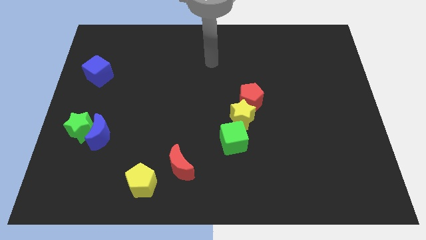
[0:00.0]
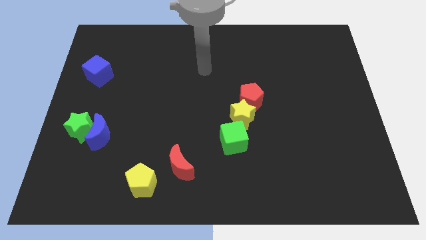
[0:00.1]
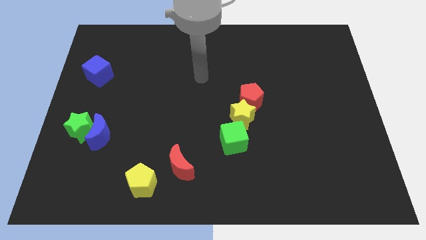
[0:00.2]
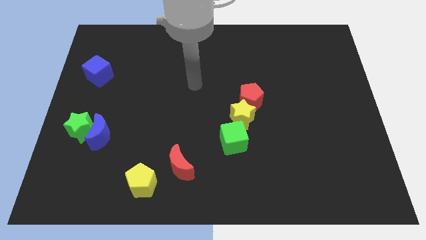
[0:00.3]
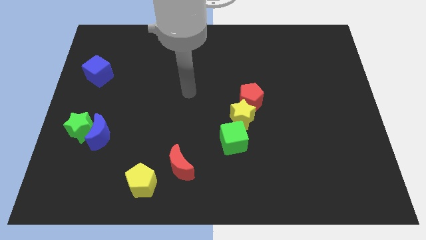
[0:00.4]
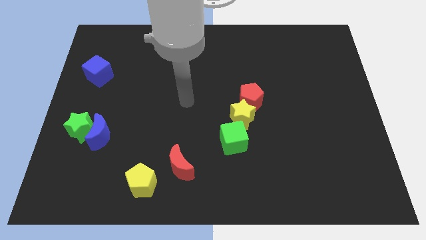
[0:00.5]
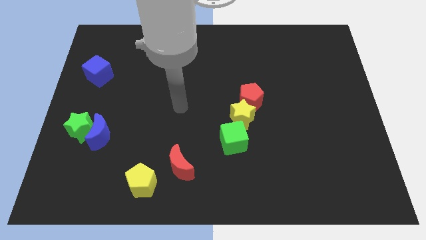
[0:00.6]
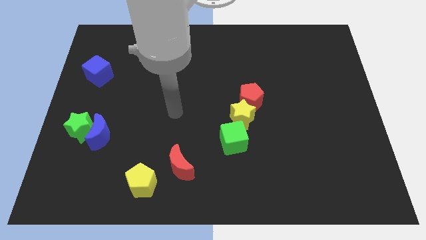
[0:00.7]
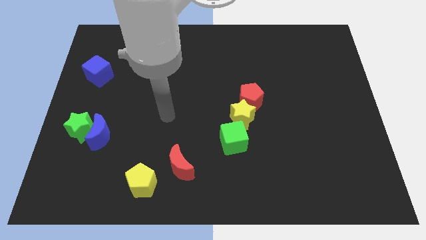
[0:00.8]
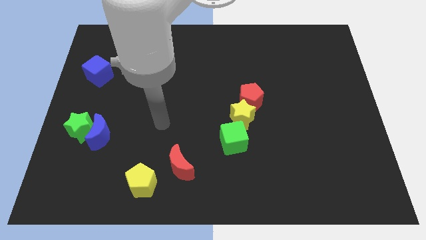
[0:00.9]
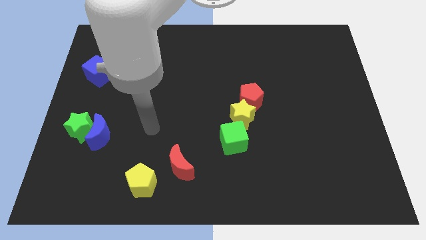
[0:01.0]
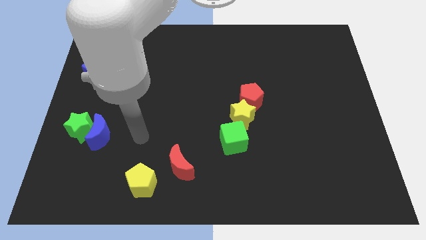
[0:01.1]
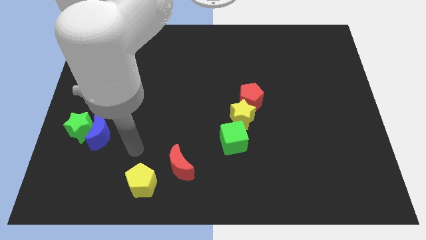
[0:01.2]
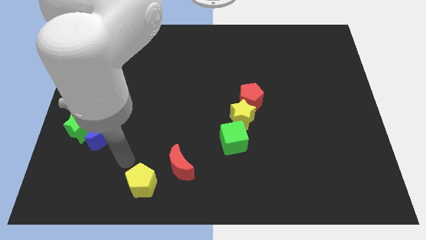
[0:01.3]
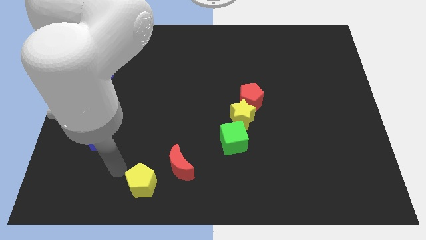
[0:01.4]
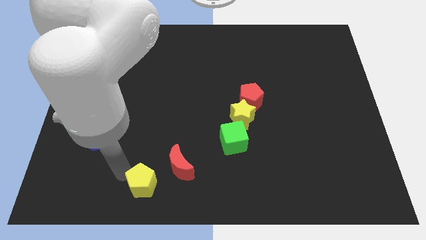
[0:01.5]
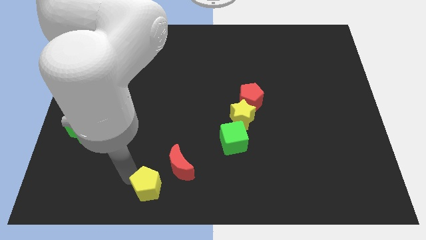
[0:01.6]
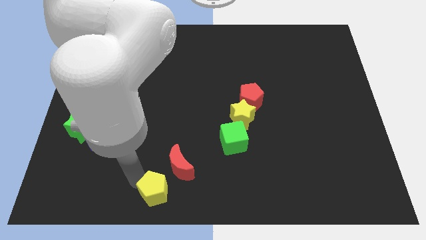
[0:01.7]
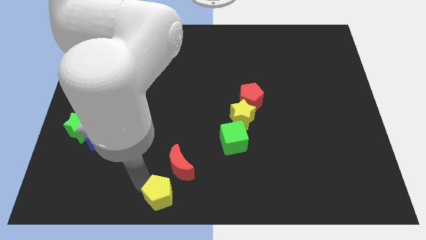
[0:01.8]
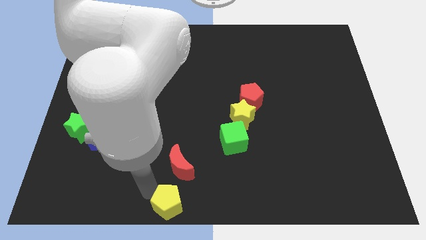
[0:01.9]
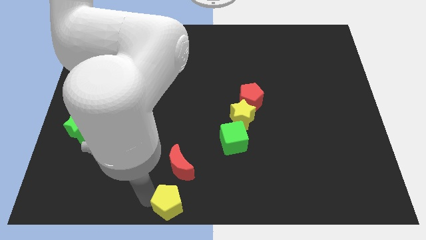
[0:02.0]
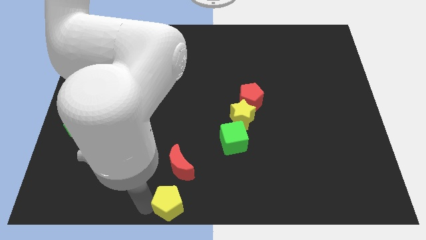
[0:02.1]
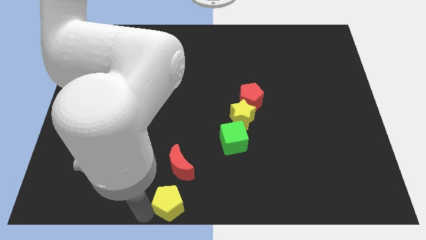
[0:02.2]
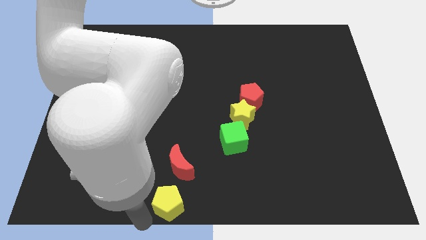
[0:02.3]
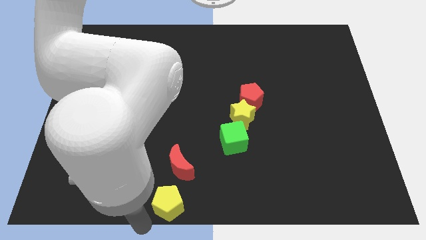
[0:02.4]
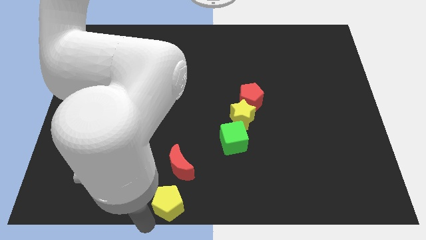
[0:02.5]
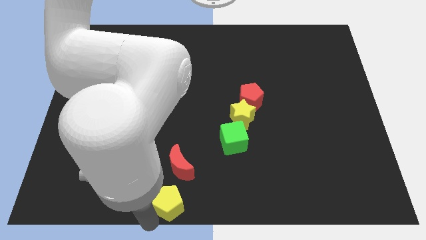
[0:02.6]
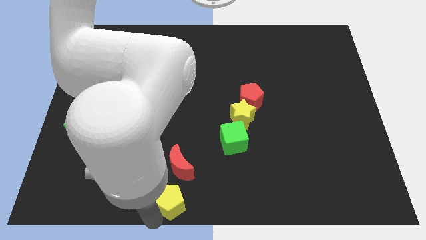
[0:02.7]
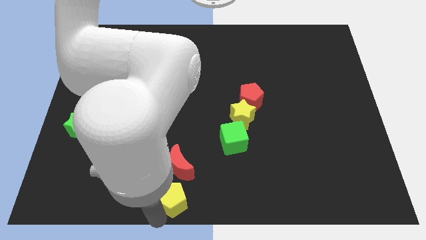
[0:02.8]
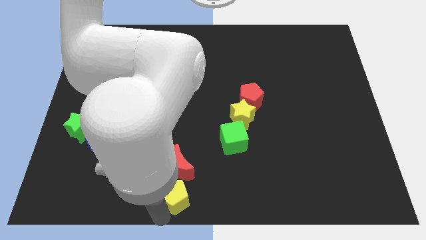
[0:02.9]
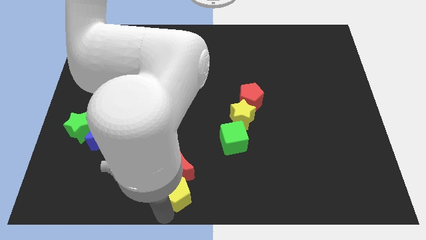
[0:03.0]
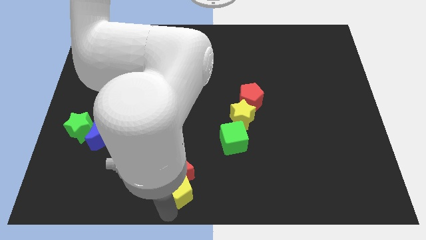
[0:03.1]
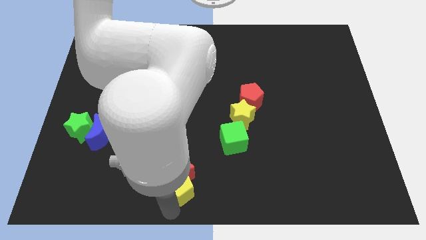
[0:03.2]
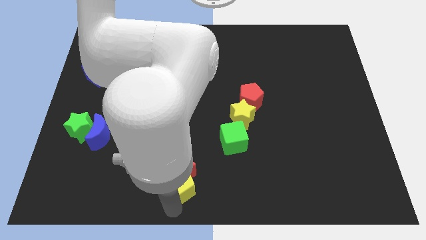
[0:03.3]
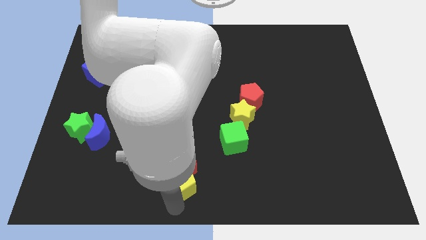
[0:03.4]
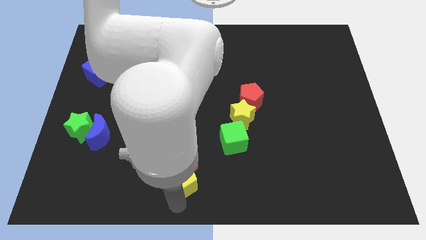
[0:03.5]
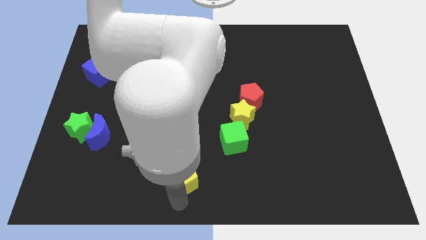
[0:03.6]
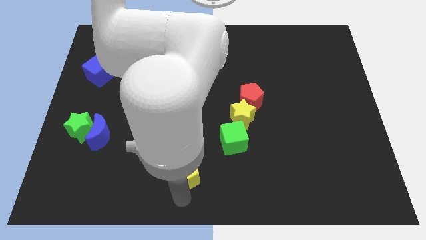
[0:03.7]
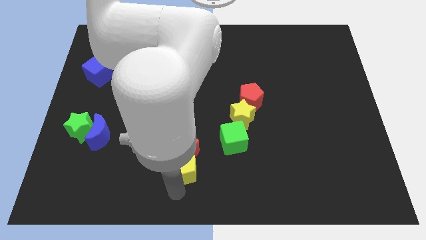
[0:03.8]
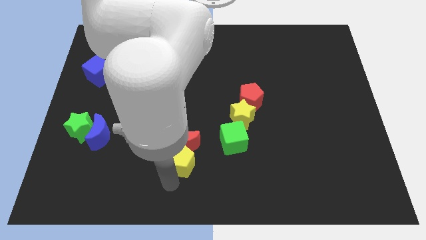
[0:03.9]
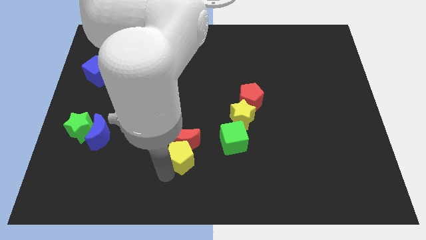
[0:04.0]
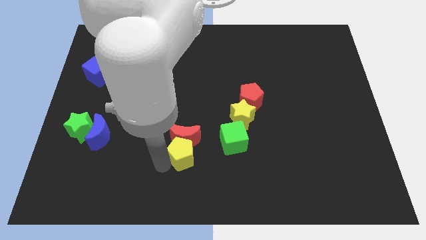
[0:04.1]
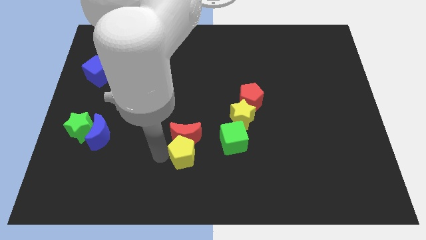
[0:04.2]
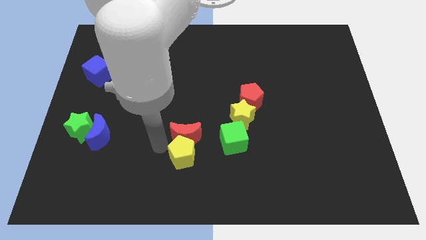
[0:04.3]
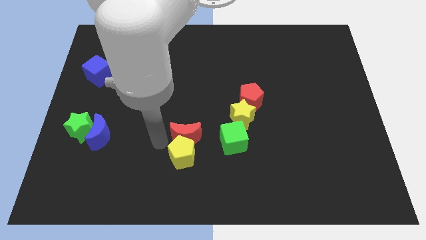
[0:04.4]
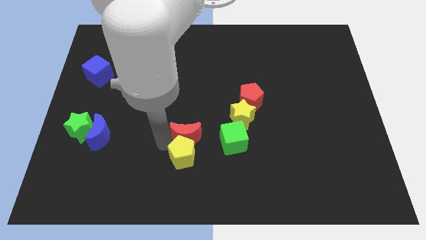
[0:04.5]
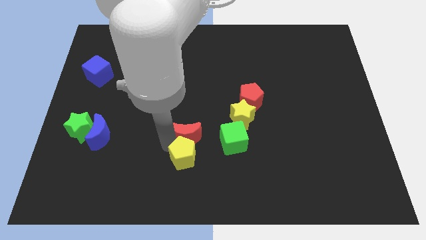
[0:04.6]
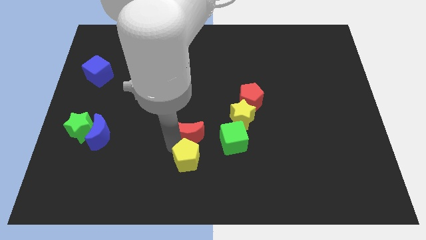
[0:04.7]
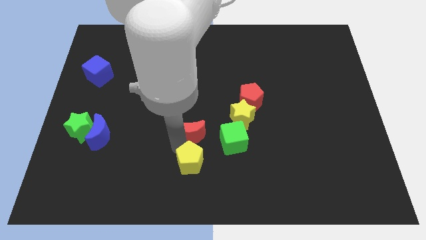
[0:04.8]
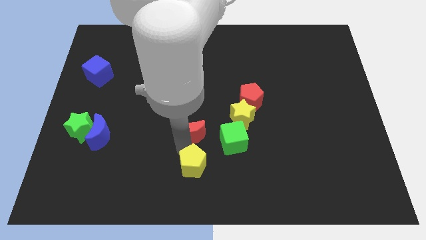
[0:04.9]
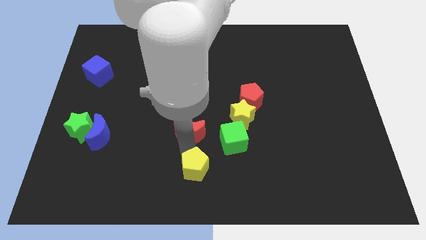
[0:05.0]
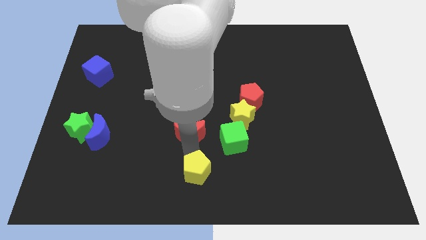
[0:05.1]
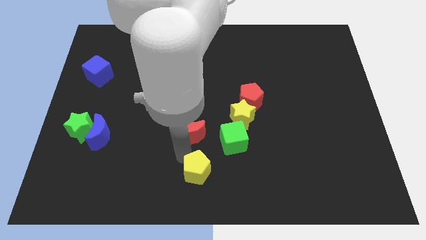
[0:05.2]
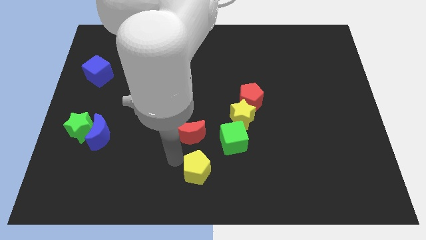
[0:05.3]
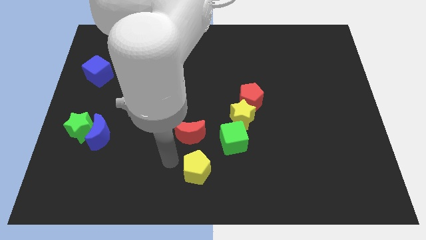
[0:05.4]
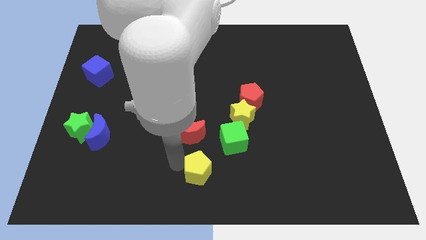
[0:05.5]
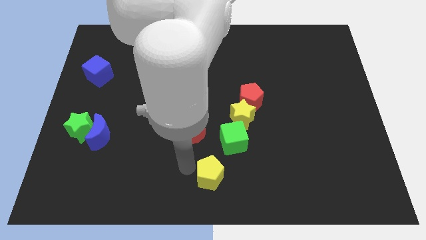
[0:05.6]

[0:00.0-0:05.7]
move the yellow pentagon to the bottom of the green cube

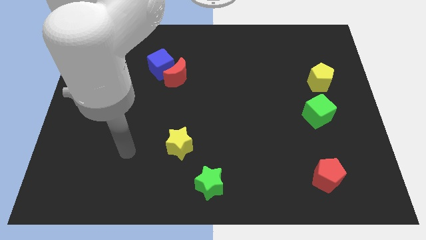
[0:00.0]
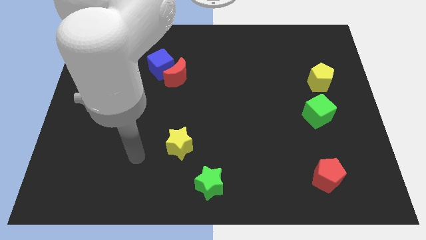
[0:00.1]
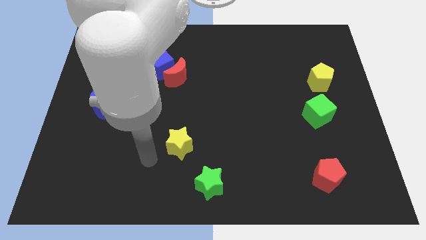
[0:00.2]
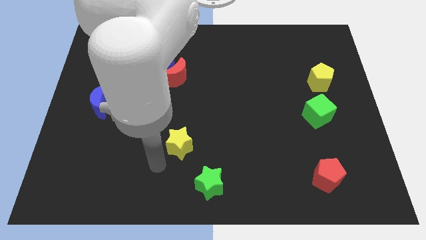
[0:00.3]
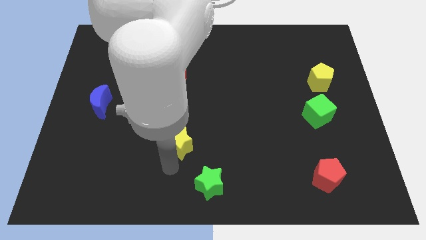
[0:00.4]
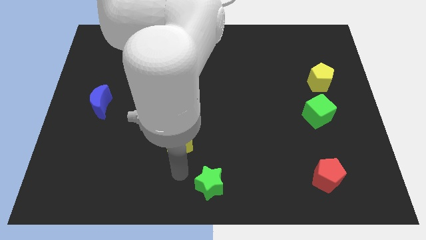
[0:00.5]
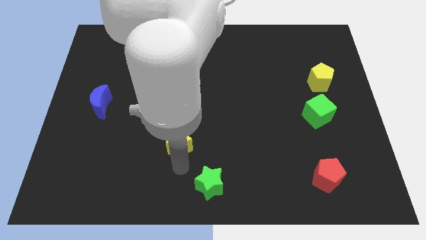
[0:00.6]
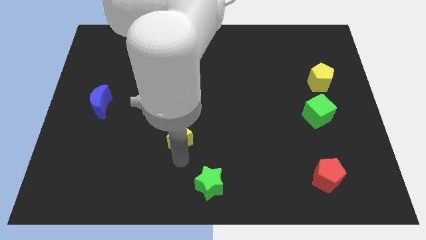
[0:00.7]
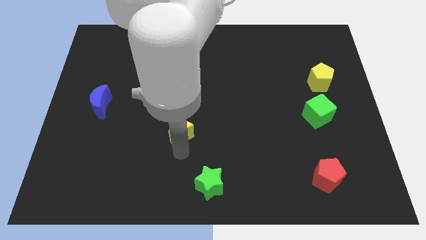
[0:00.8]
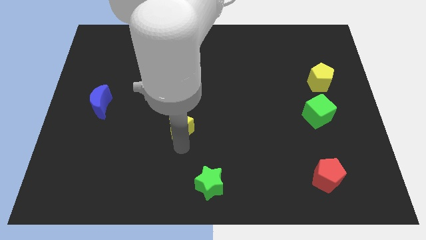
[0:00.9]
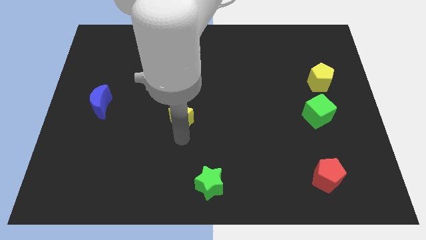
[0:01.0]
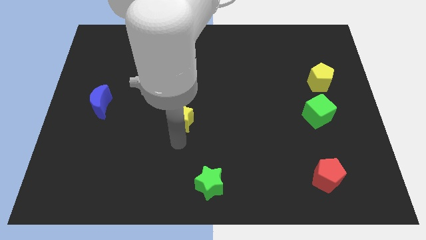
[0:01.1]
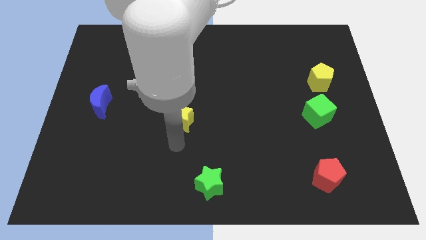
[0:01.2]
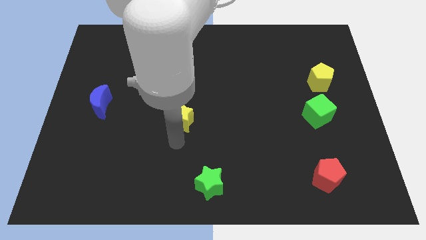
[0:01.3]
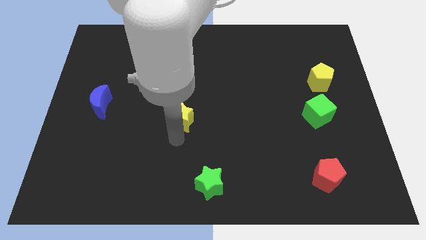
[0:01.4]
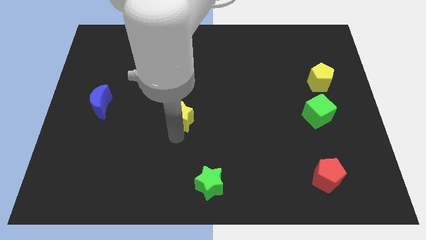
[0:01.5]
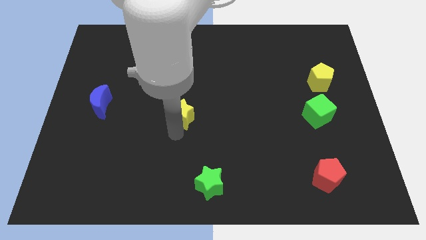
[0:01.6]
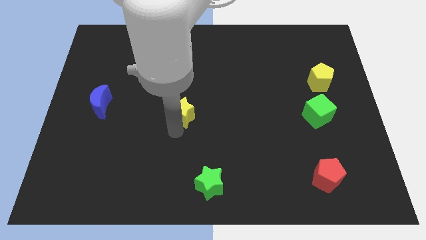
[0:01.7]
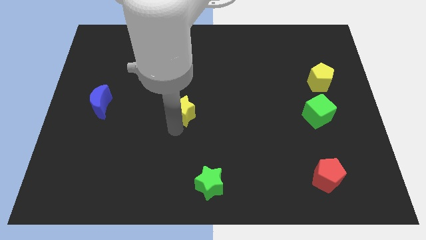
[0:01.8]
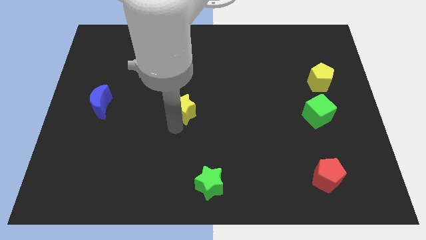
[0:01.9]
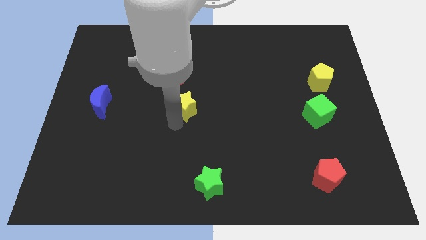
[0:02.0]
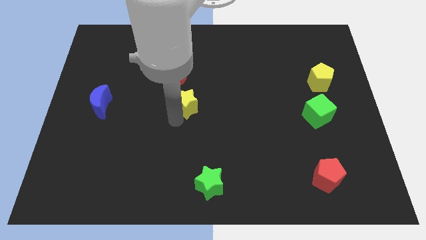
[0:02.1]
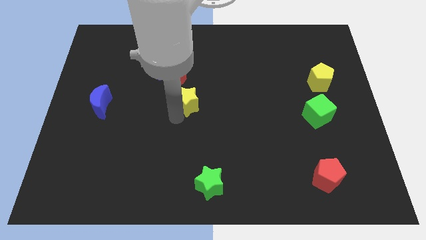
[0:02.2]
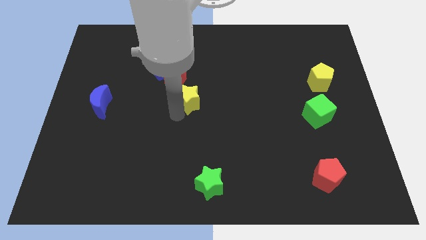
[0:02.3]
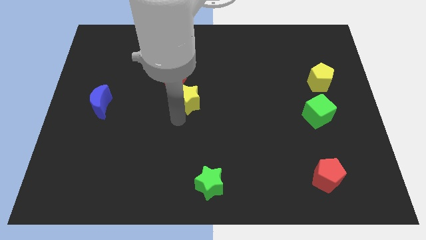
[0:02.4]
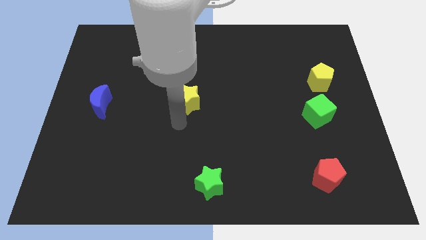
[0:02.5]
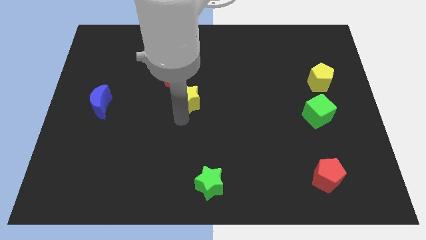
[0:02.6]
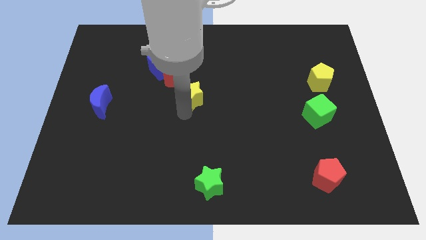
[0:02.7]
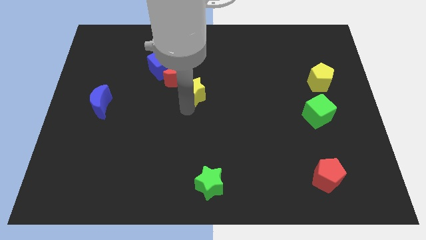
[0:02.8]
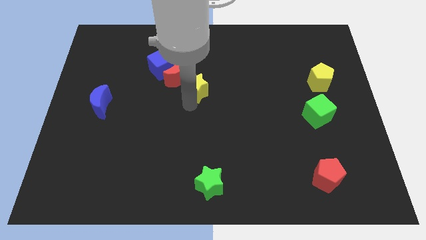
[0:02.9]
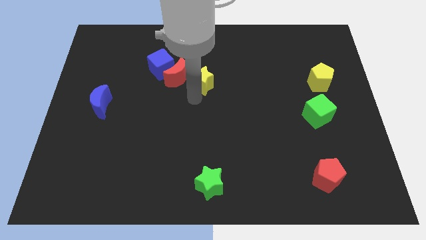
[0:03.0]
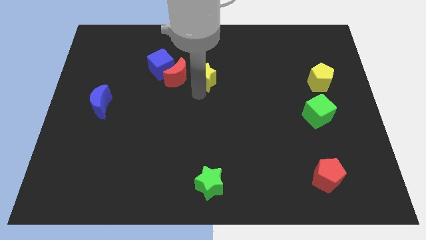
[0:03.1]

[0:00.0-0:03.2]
push the yellow star just right of the blue cube
